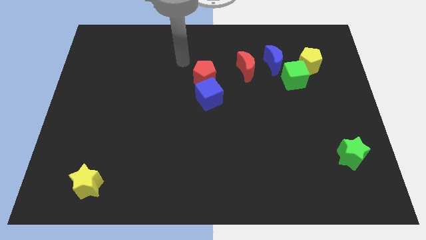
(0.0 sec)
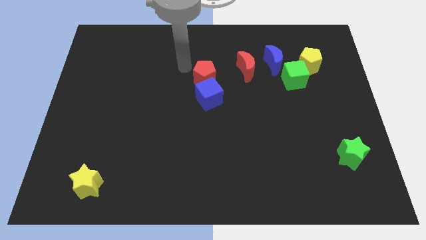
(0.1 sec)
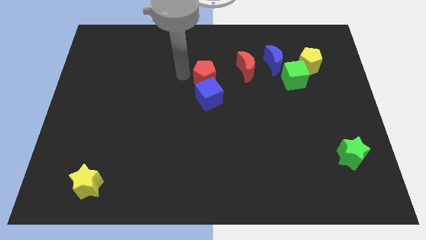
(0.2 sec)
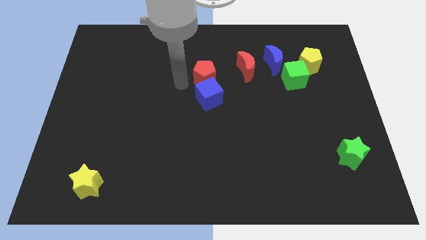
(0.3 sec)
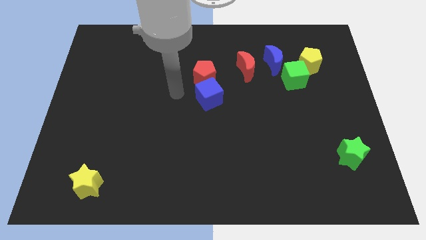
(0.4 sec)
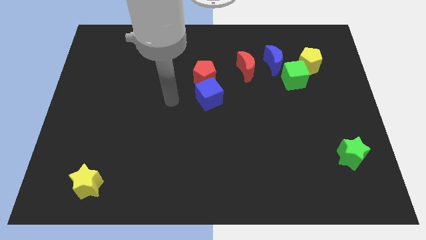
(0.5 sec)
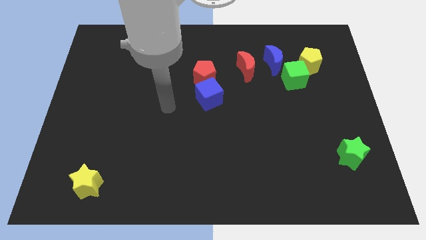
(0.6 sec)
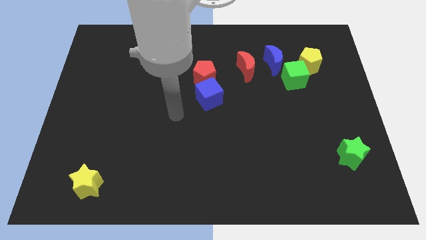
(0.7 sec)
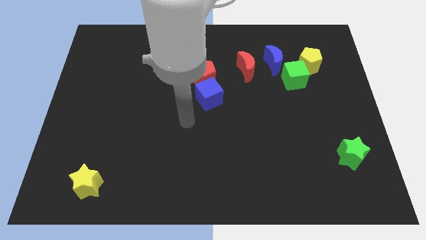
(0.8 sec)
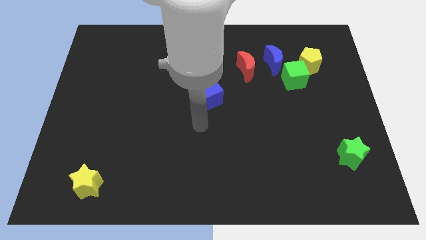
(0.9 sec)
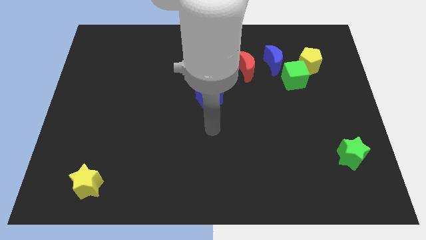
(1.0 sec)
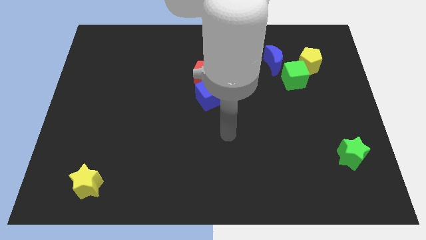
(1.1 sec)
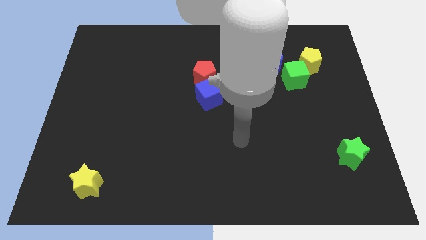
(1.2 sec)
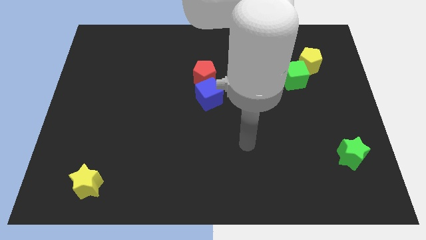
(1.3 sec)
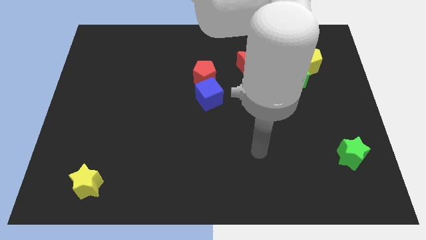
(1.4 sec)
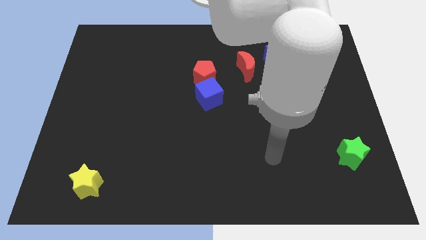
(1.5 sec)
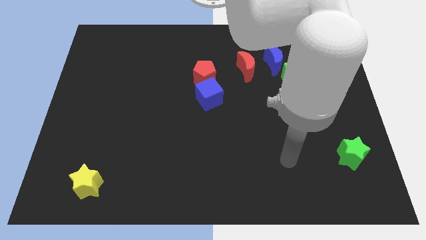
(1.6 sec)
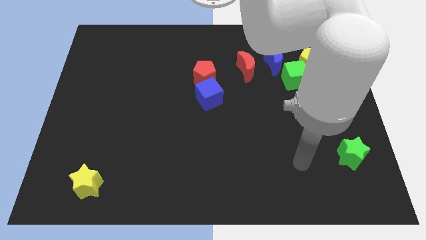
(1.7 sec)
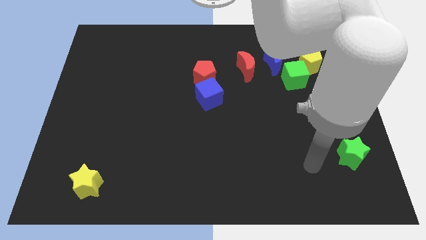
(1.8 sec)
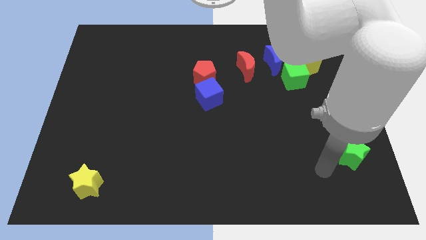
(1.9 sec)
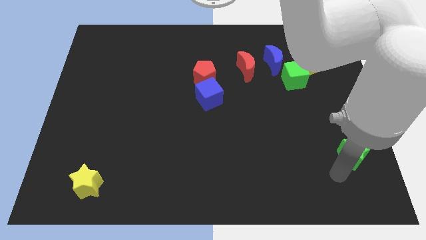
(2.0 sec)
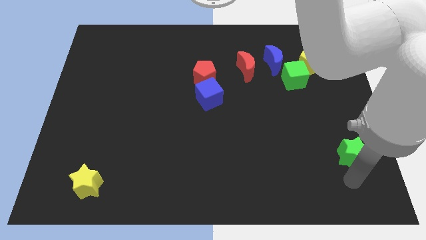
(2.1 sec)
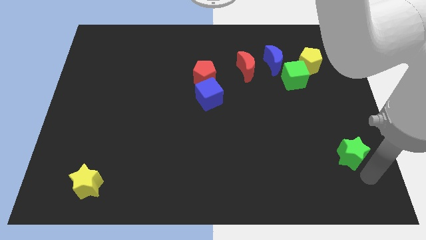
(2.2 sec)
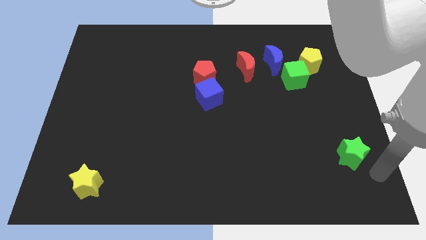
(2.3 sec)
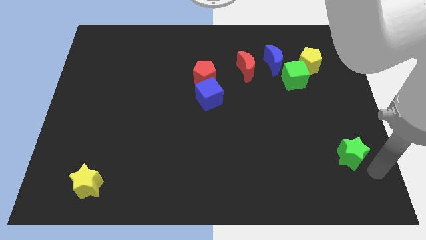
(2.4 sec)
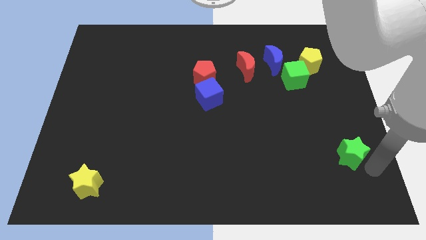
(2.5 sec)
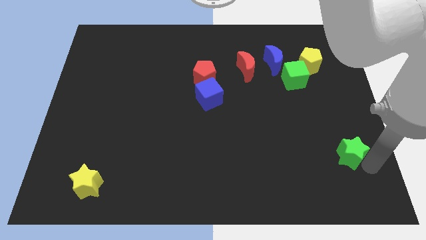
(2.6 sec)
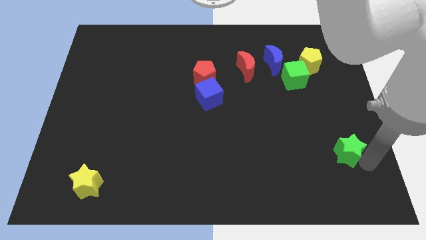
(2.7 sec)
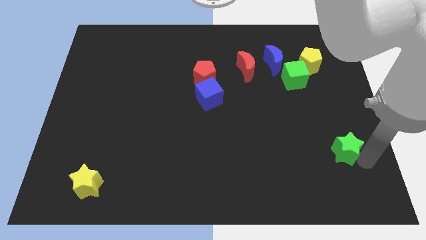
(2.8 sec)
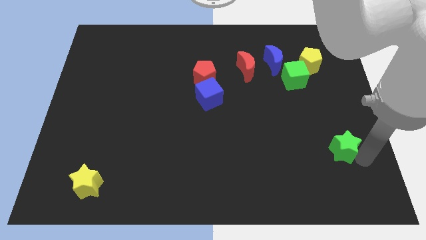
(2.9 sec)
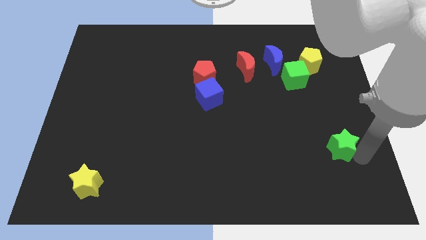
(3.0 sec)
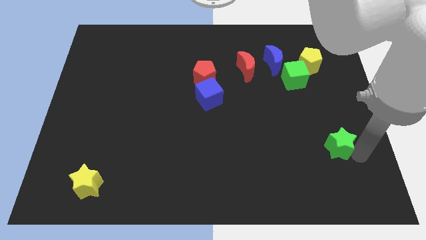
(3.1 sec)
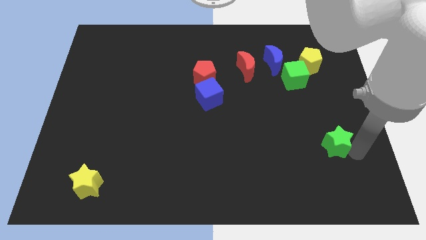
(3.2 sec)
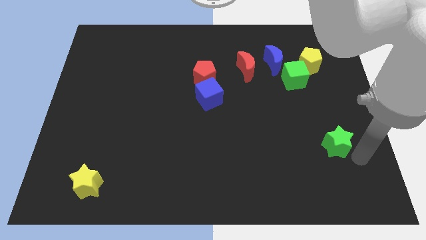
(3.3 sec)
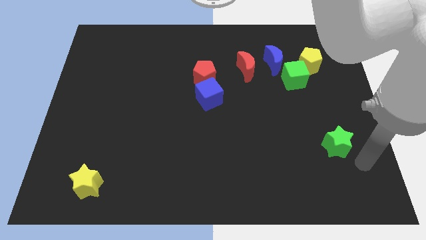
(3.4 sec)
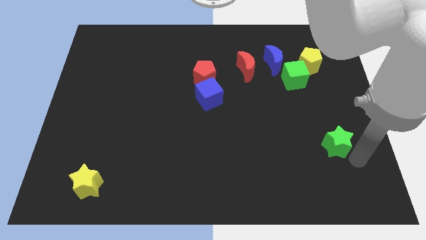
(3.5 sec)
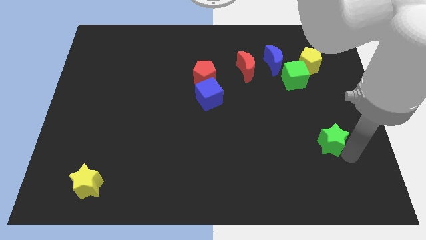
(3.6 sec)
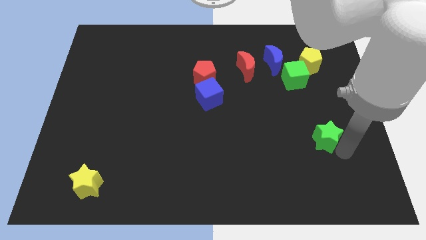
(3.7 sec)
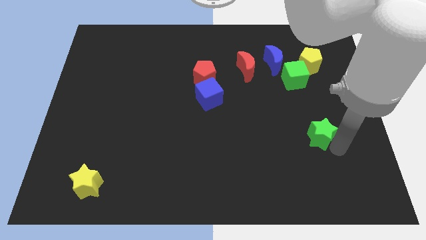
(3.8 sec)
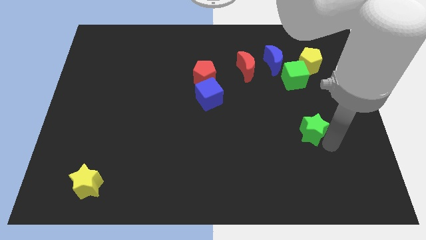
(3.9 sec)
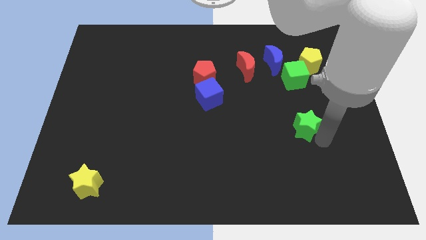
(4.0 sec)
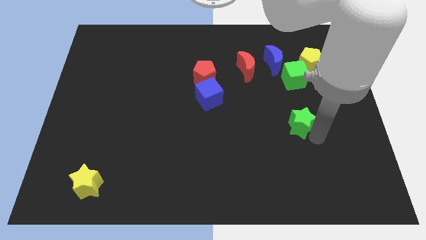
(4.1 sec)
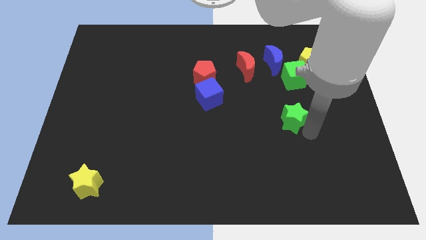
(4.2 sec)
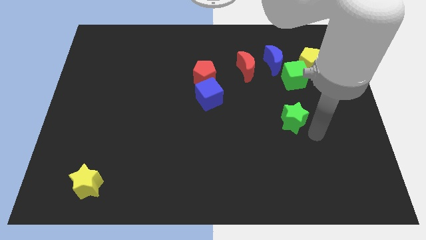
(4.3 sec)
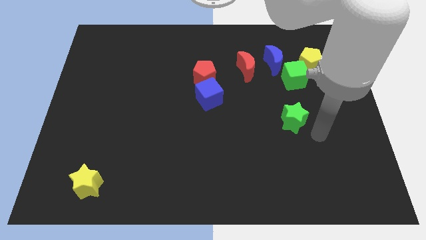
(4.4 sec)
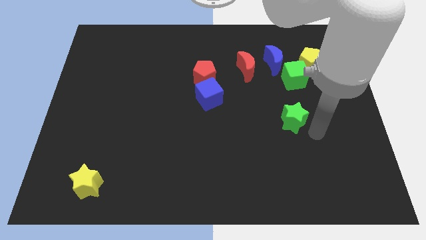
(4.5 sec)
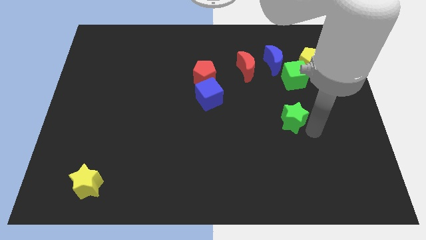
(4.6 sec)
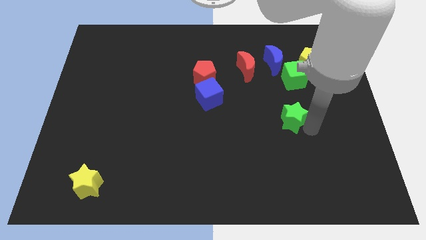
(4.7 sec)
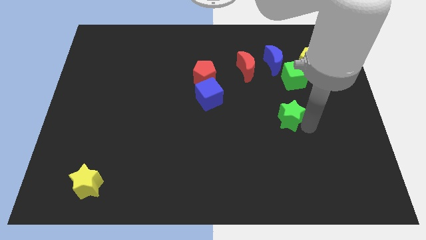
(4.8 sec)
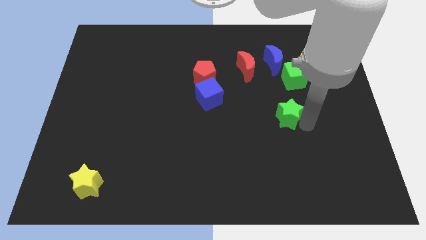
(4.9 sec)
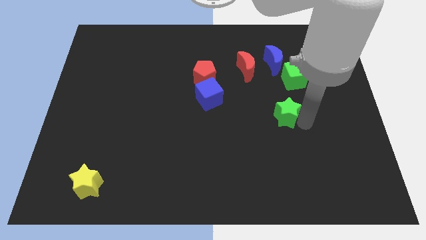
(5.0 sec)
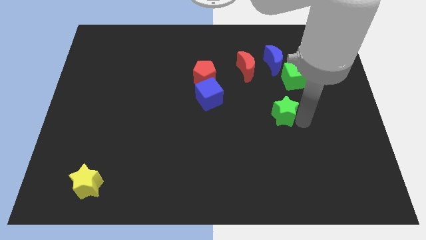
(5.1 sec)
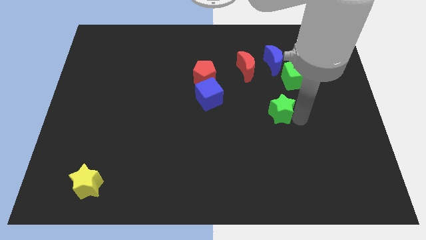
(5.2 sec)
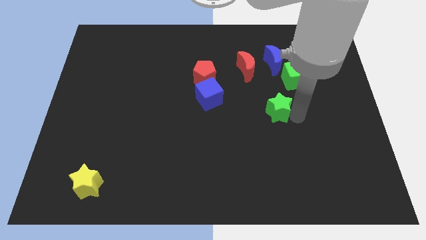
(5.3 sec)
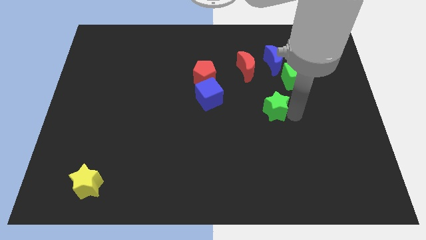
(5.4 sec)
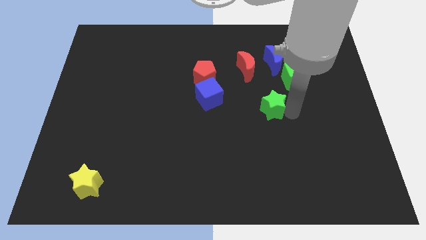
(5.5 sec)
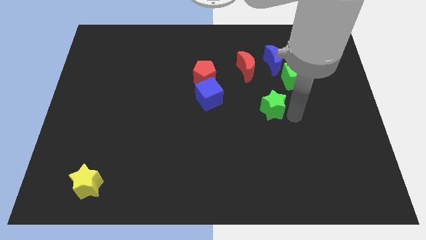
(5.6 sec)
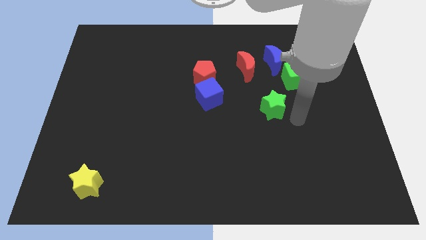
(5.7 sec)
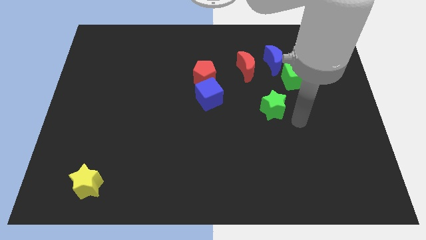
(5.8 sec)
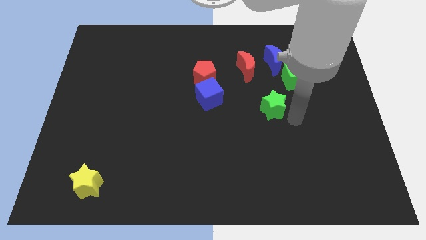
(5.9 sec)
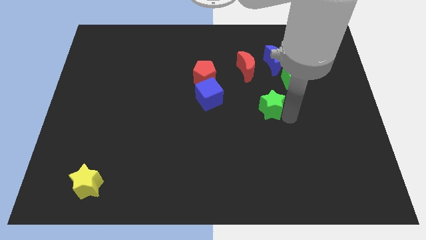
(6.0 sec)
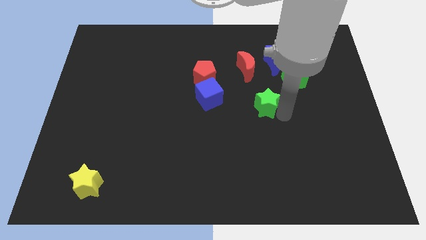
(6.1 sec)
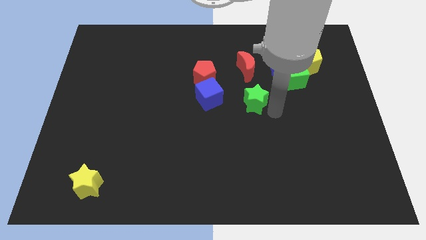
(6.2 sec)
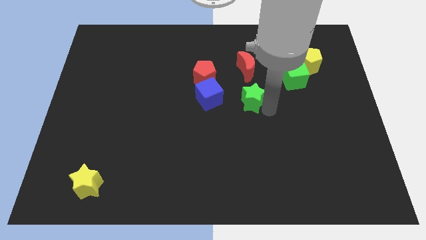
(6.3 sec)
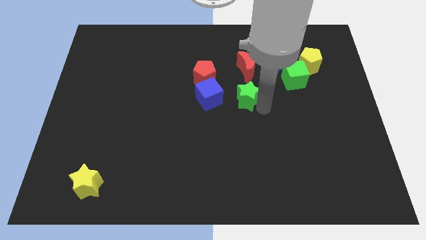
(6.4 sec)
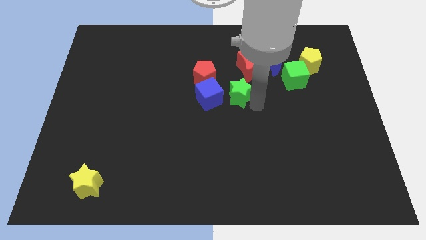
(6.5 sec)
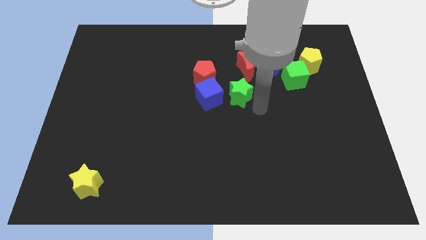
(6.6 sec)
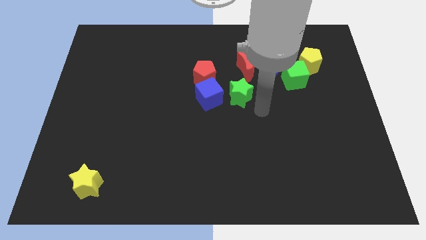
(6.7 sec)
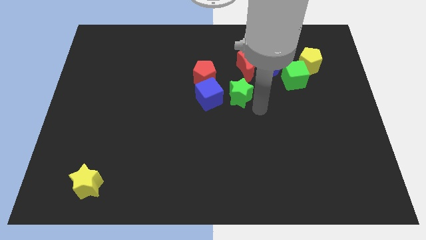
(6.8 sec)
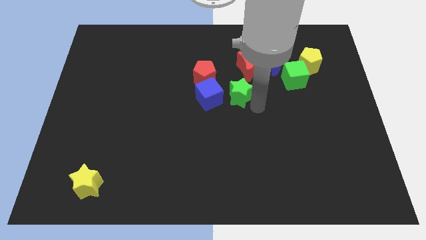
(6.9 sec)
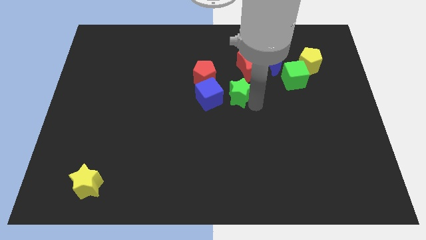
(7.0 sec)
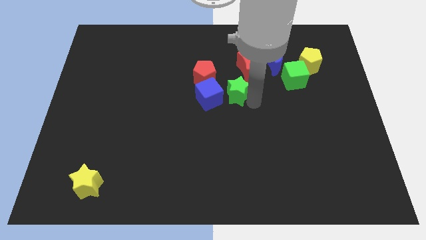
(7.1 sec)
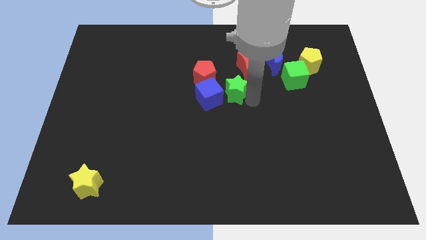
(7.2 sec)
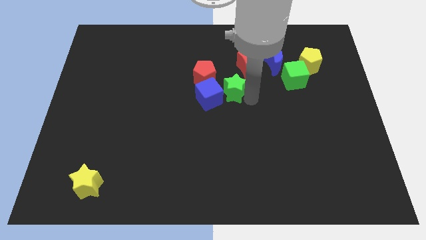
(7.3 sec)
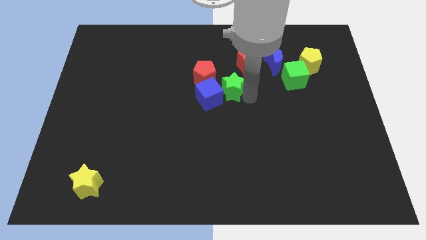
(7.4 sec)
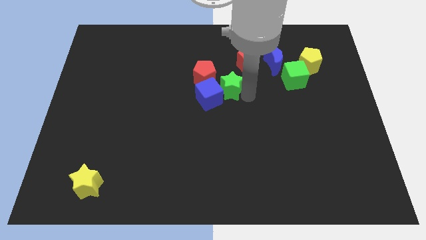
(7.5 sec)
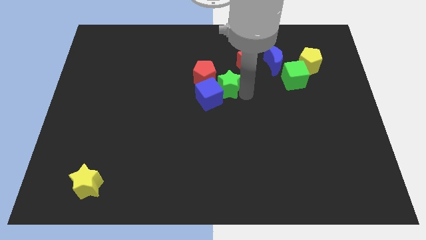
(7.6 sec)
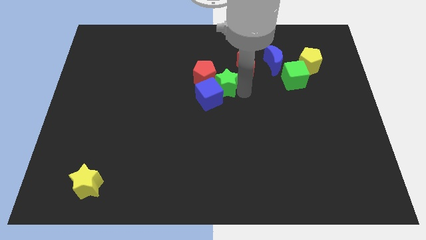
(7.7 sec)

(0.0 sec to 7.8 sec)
move the green star next to the red pentagon
